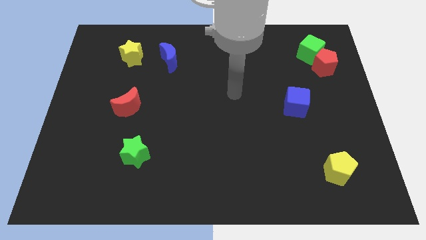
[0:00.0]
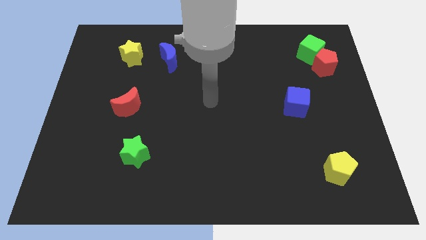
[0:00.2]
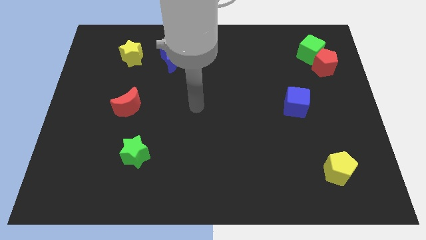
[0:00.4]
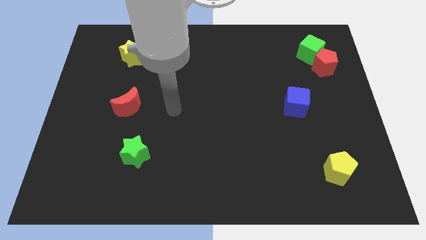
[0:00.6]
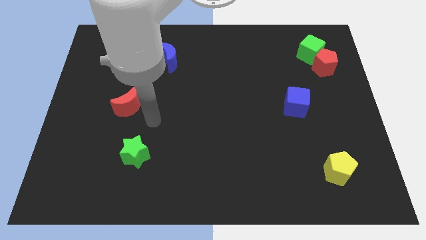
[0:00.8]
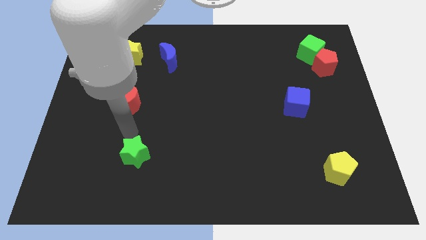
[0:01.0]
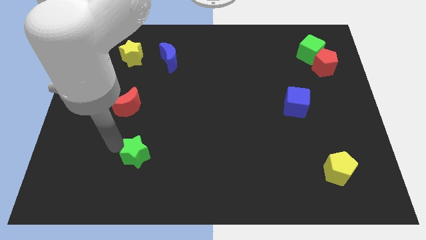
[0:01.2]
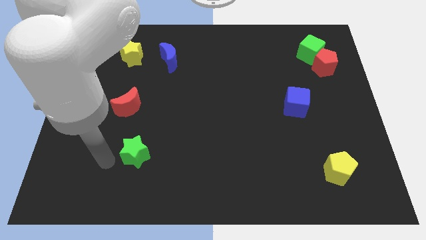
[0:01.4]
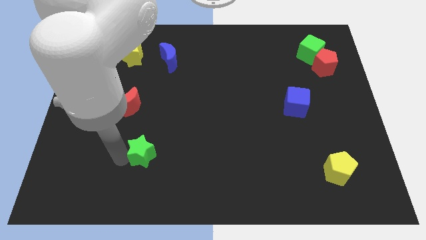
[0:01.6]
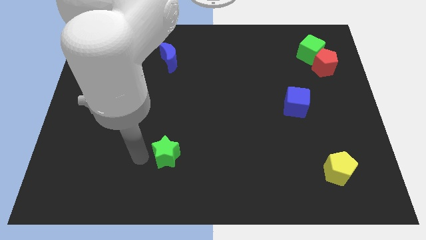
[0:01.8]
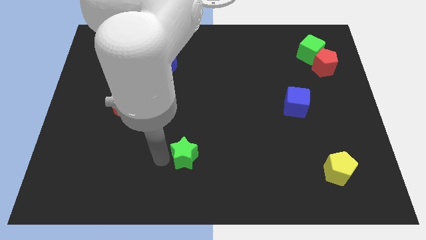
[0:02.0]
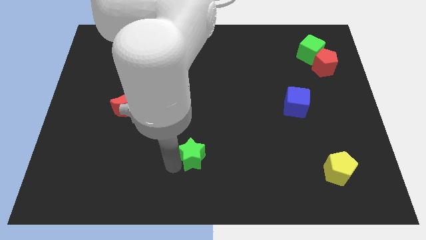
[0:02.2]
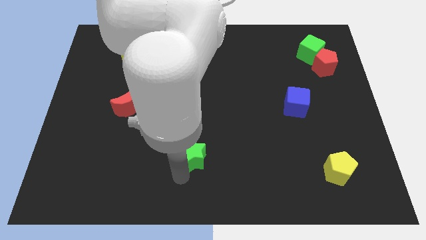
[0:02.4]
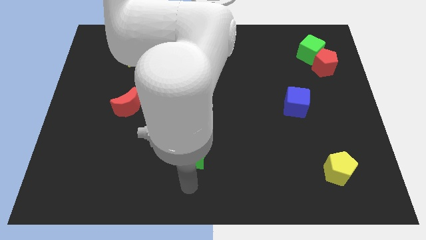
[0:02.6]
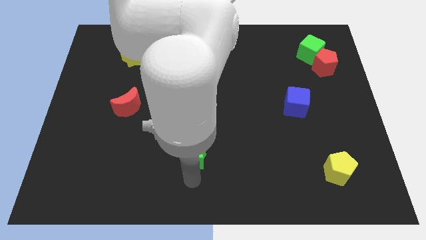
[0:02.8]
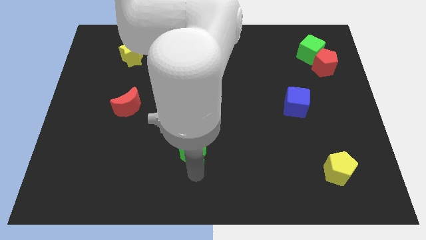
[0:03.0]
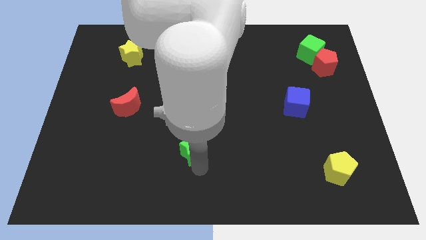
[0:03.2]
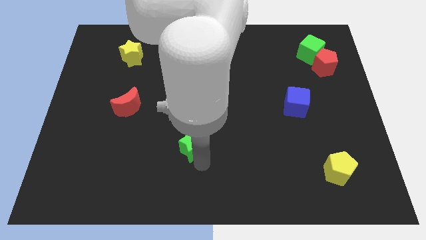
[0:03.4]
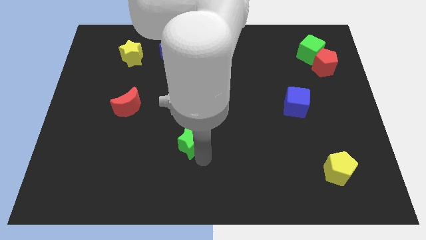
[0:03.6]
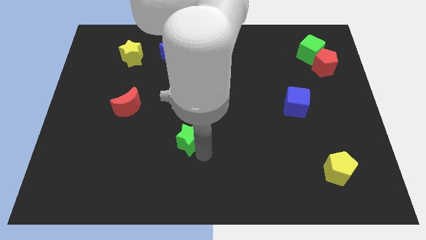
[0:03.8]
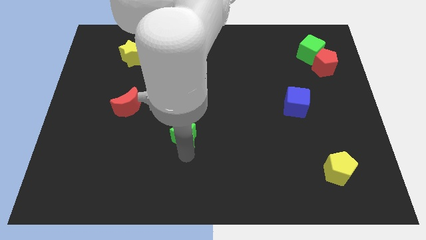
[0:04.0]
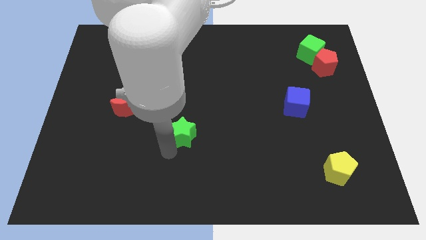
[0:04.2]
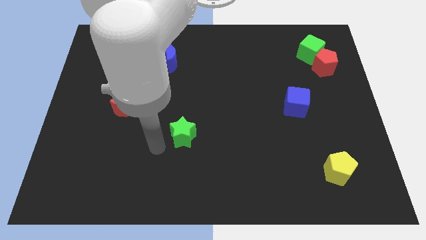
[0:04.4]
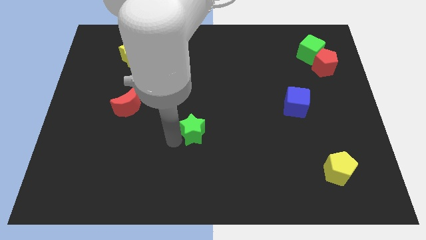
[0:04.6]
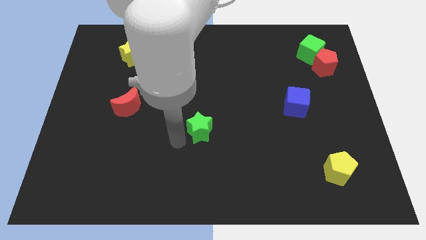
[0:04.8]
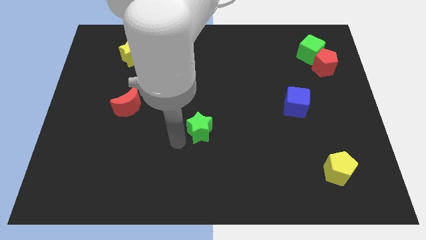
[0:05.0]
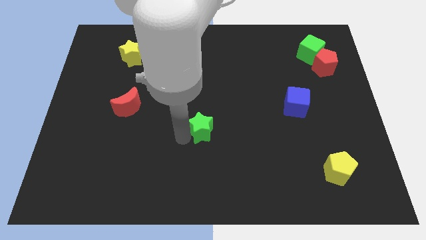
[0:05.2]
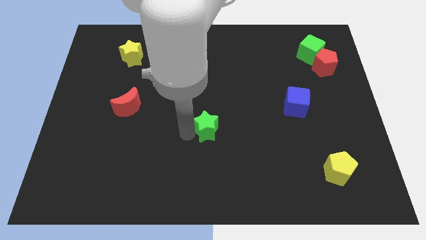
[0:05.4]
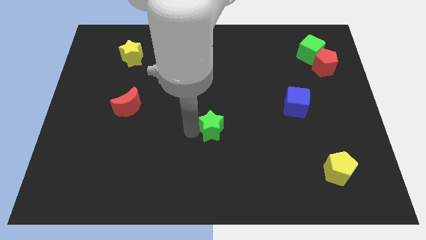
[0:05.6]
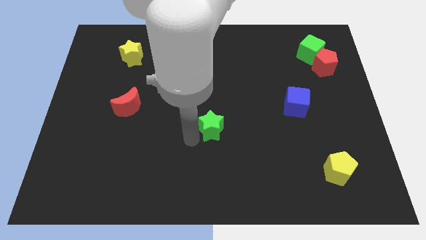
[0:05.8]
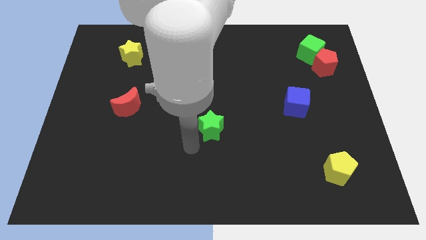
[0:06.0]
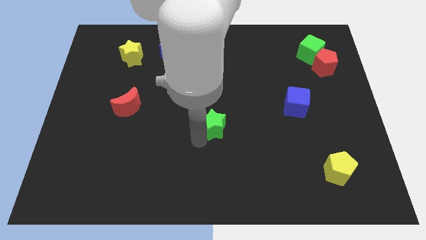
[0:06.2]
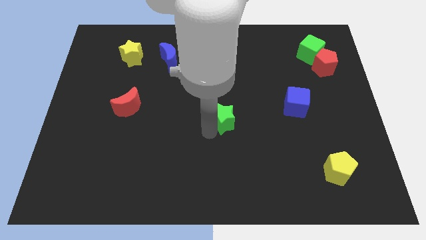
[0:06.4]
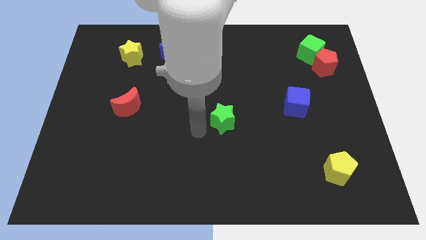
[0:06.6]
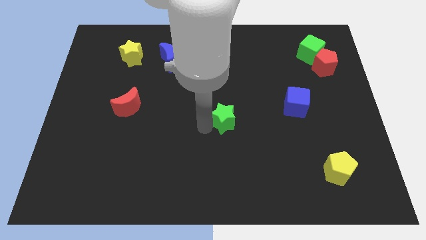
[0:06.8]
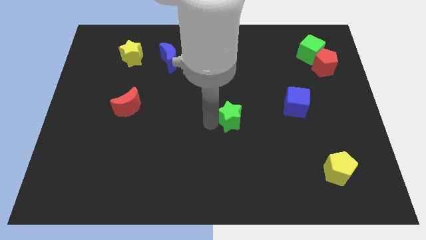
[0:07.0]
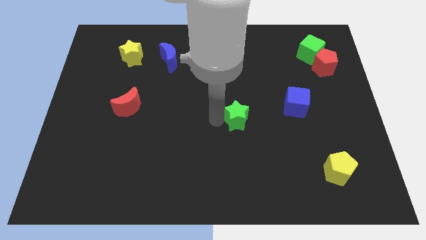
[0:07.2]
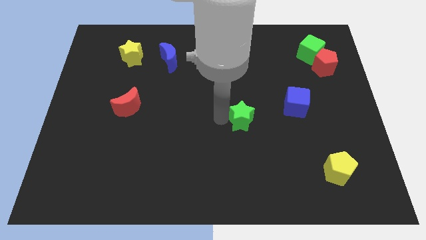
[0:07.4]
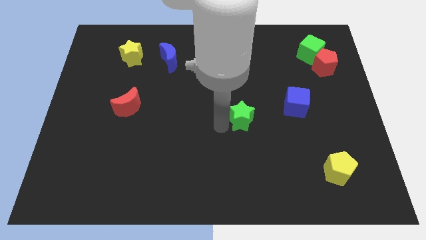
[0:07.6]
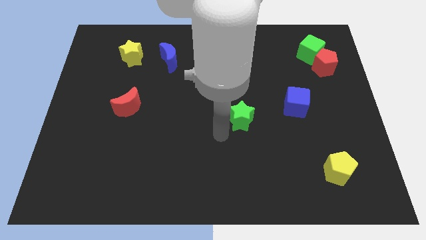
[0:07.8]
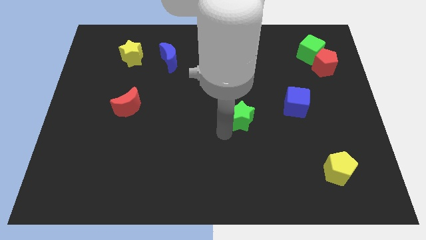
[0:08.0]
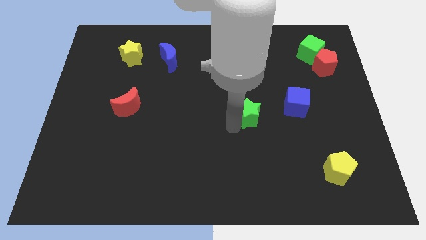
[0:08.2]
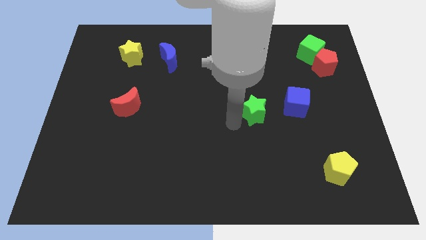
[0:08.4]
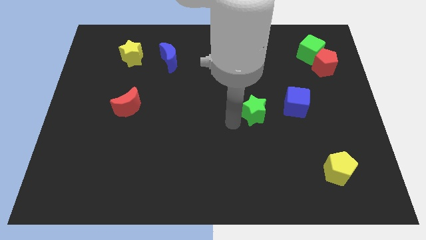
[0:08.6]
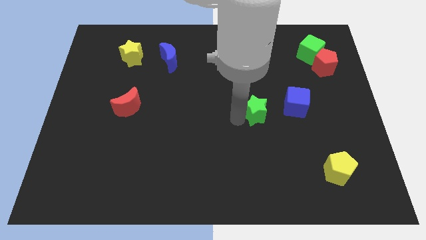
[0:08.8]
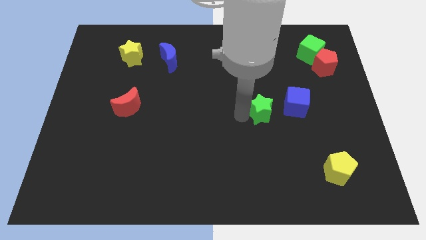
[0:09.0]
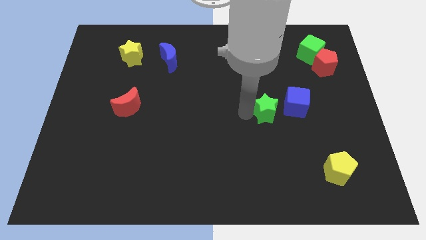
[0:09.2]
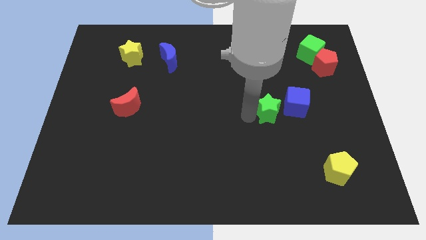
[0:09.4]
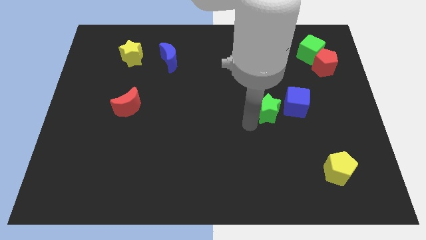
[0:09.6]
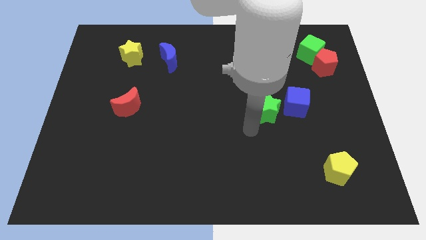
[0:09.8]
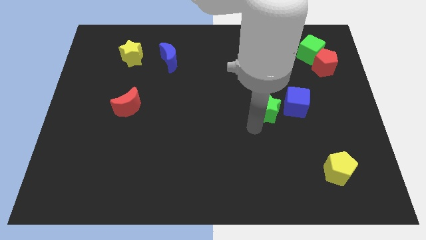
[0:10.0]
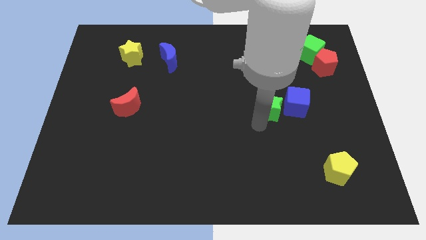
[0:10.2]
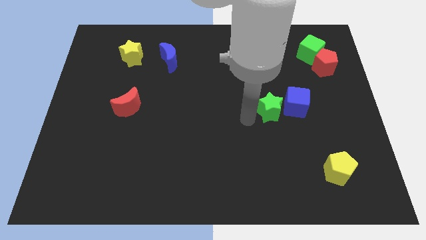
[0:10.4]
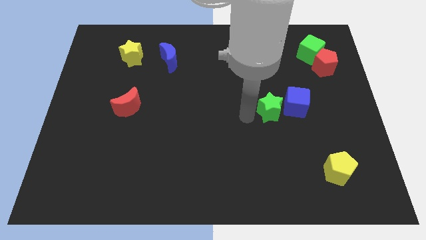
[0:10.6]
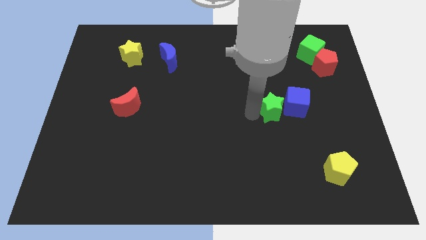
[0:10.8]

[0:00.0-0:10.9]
move the green star towards the blue cube

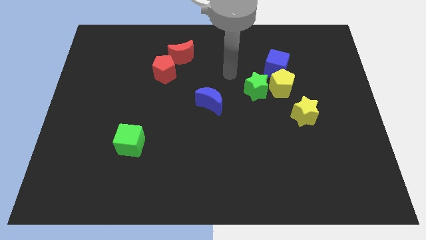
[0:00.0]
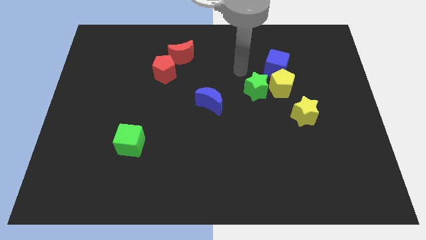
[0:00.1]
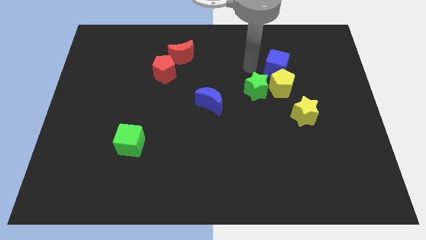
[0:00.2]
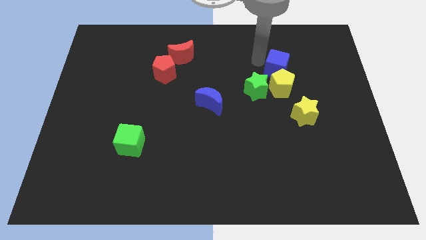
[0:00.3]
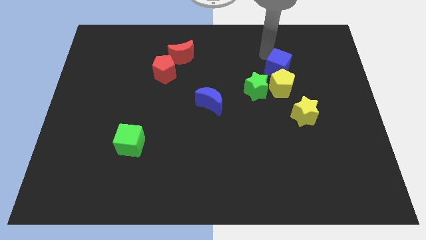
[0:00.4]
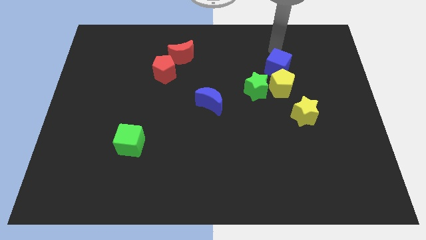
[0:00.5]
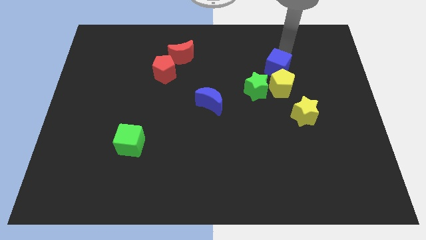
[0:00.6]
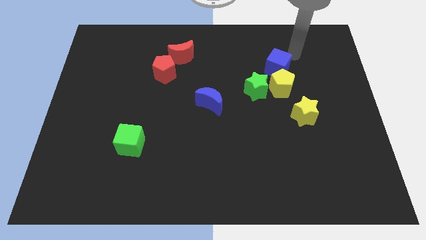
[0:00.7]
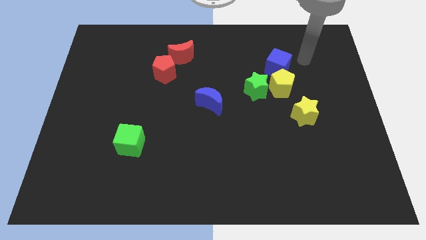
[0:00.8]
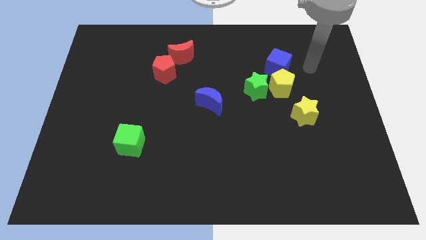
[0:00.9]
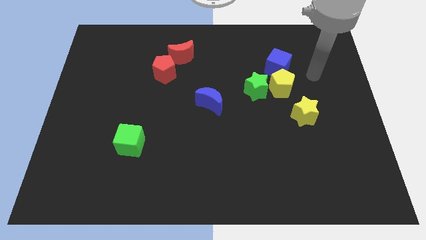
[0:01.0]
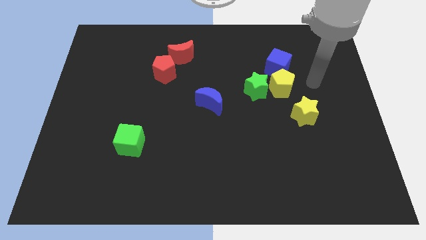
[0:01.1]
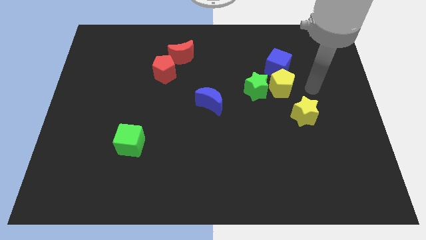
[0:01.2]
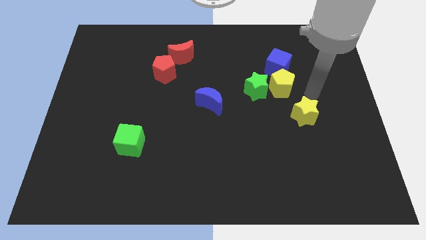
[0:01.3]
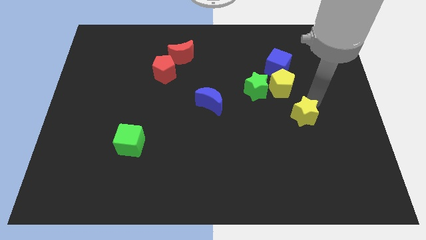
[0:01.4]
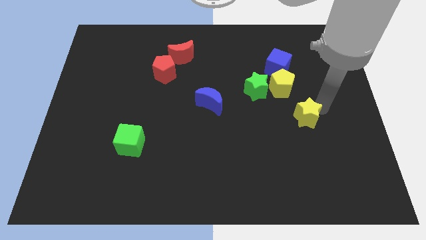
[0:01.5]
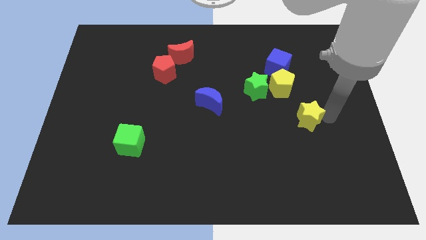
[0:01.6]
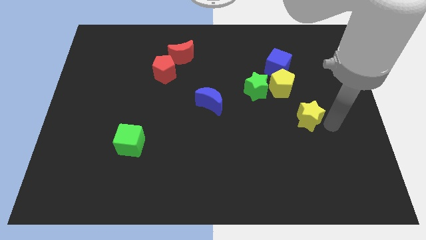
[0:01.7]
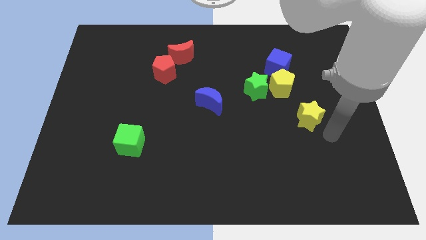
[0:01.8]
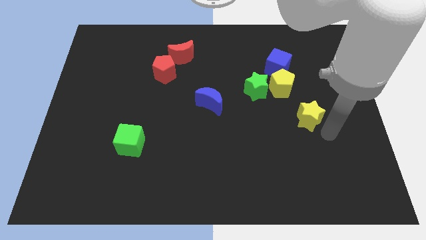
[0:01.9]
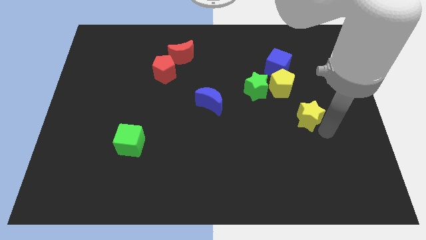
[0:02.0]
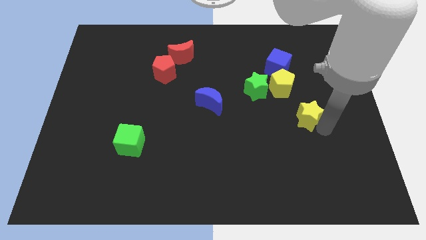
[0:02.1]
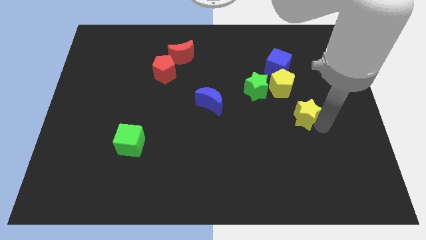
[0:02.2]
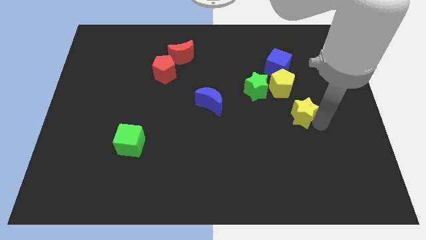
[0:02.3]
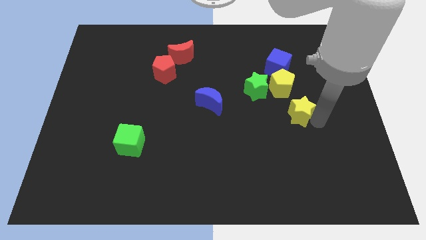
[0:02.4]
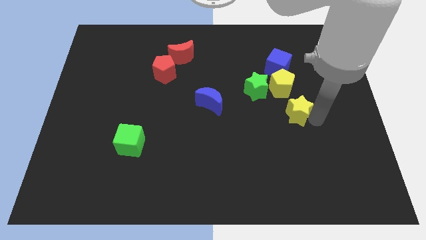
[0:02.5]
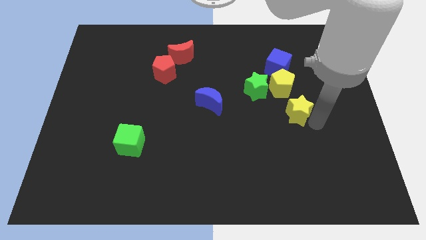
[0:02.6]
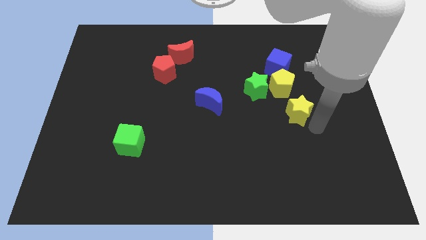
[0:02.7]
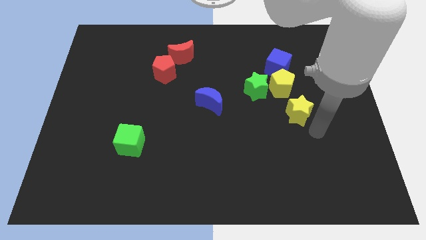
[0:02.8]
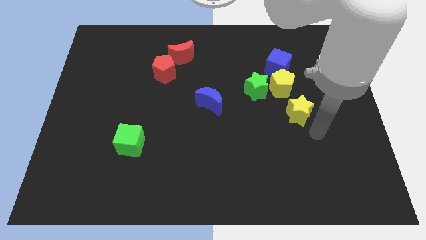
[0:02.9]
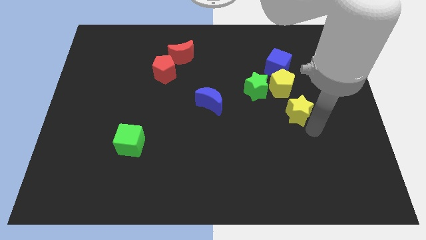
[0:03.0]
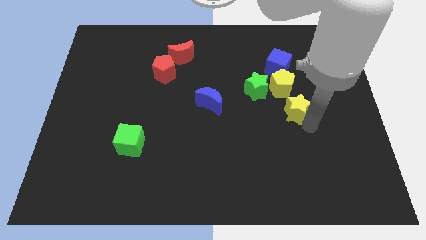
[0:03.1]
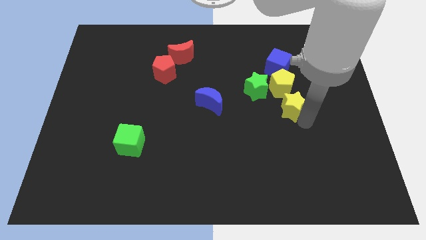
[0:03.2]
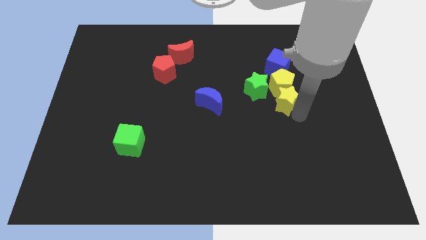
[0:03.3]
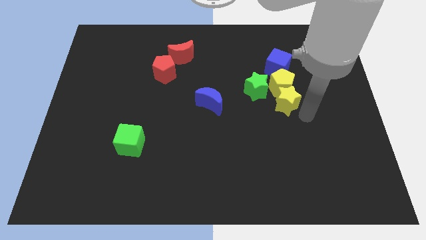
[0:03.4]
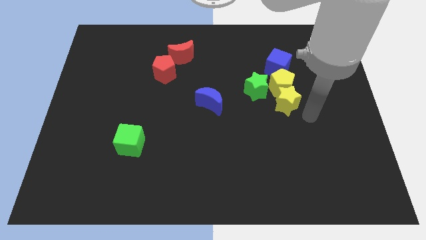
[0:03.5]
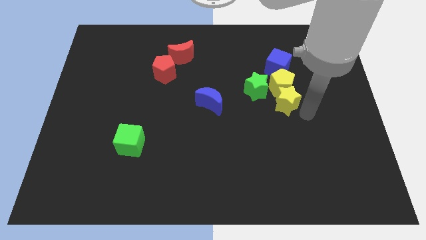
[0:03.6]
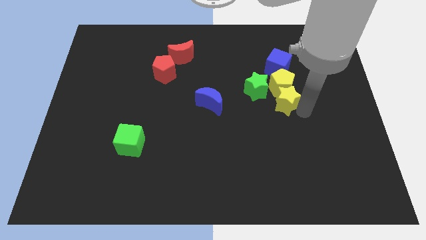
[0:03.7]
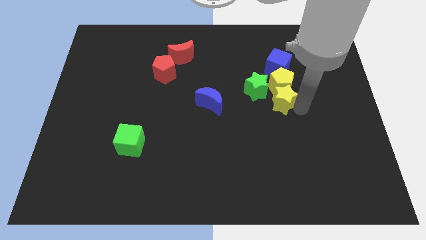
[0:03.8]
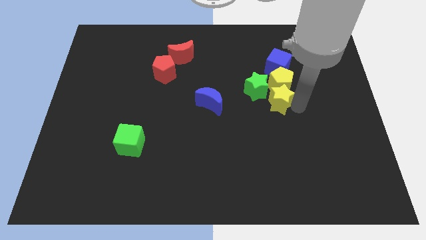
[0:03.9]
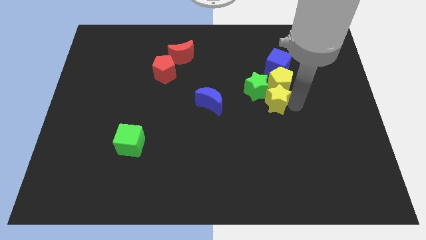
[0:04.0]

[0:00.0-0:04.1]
slide the yellow star close to the green star
